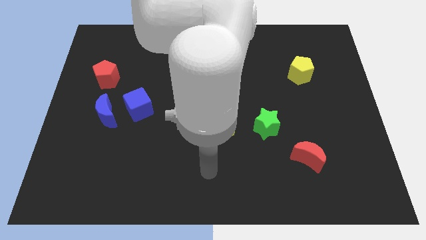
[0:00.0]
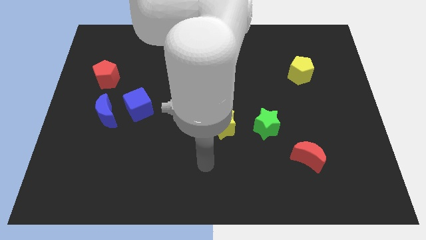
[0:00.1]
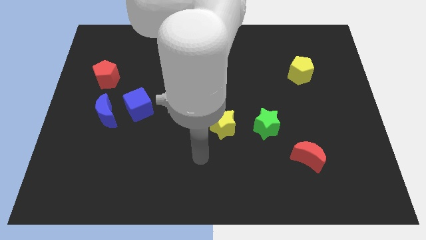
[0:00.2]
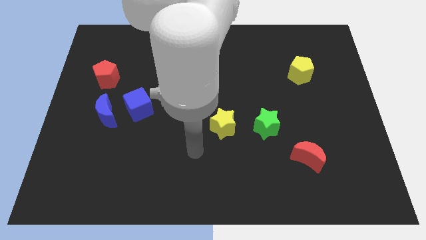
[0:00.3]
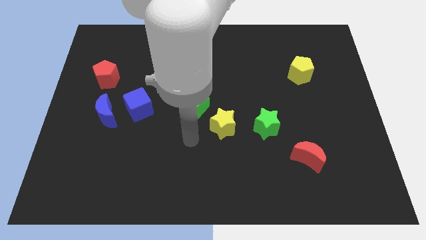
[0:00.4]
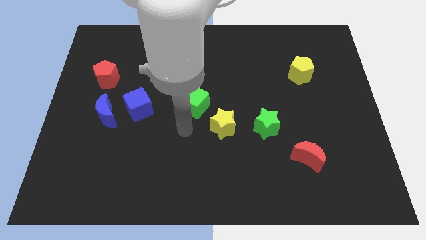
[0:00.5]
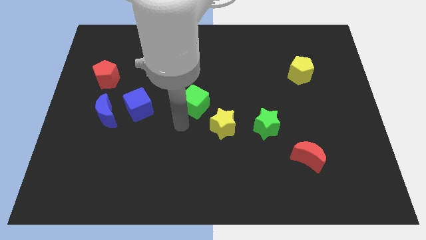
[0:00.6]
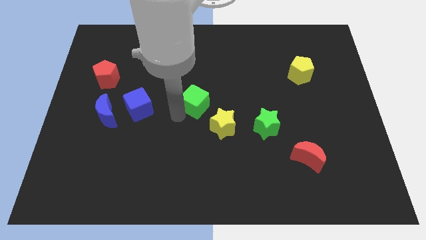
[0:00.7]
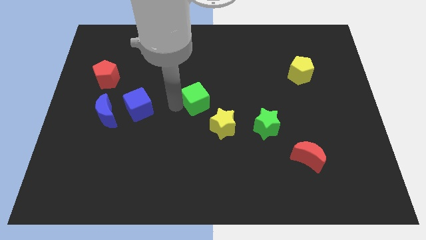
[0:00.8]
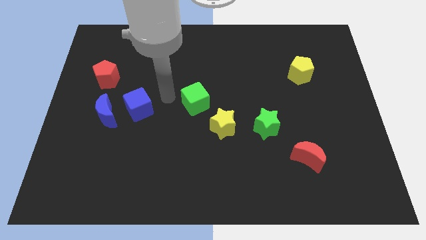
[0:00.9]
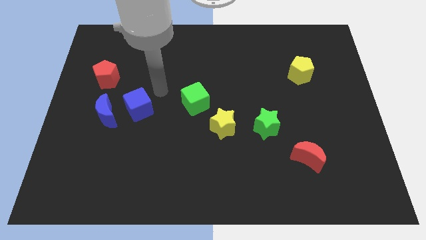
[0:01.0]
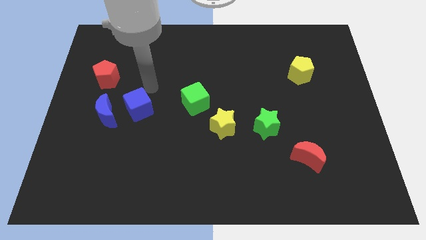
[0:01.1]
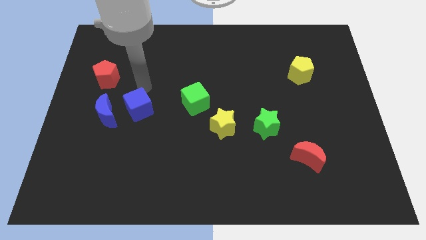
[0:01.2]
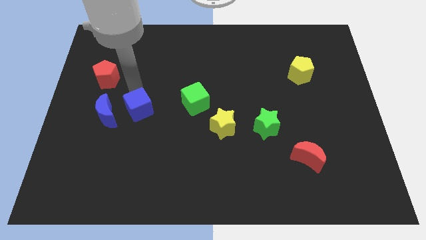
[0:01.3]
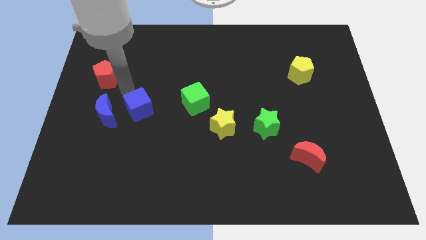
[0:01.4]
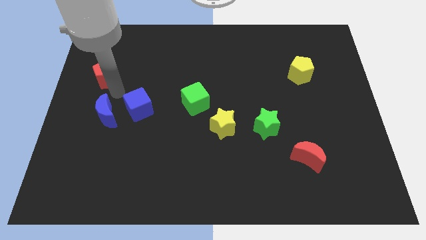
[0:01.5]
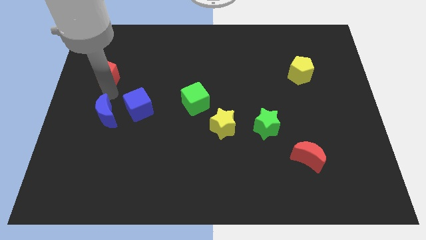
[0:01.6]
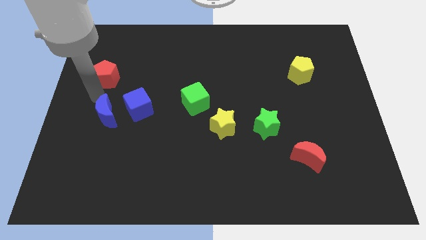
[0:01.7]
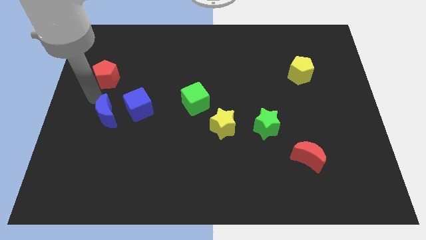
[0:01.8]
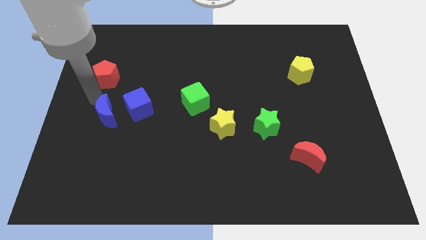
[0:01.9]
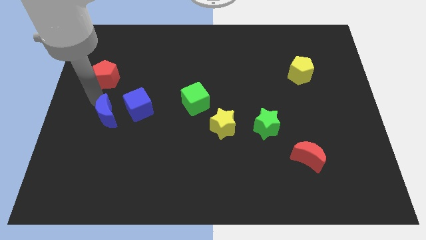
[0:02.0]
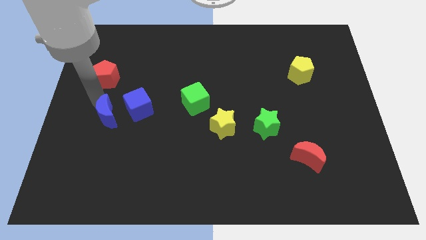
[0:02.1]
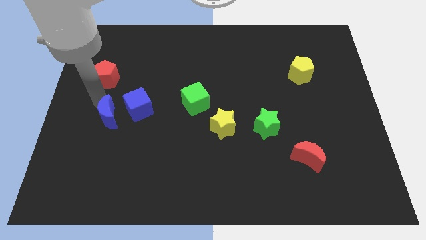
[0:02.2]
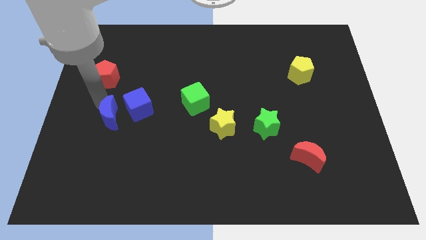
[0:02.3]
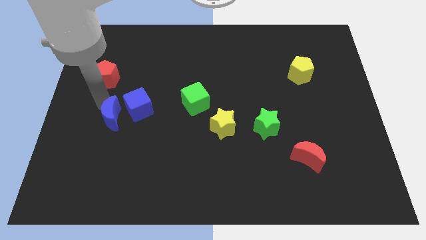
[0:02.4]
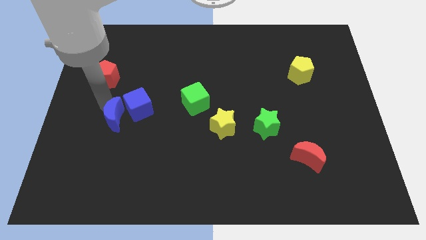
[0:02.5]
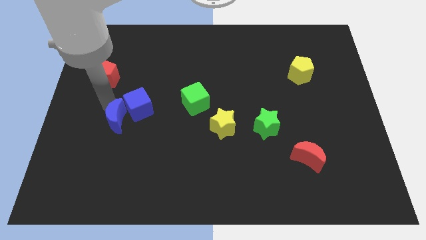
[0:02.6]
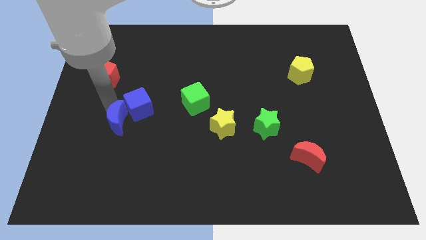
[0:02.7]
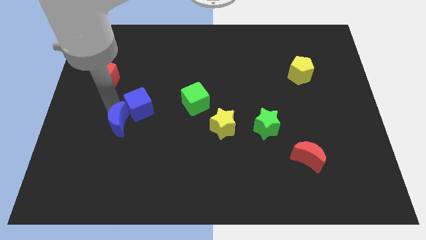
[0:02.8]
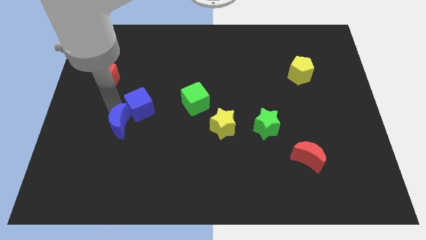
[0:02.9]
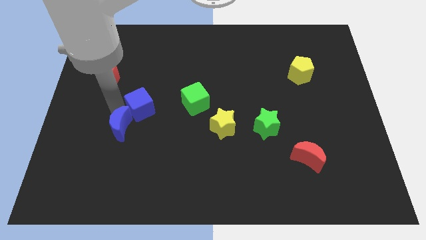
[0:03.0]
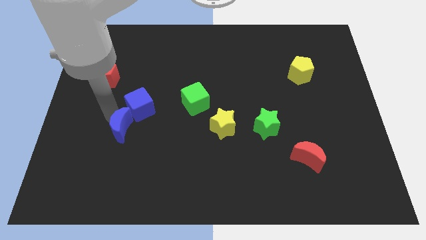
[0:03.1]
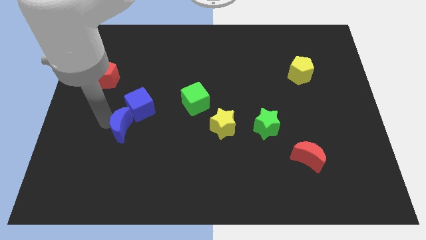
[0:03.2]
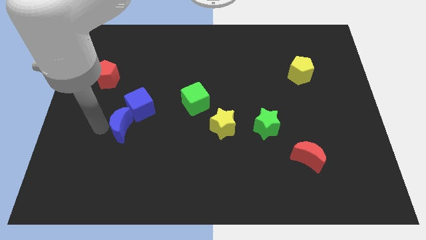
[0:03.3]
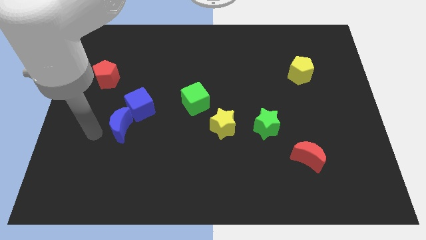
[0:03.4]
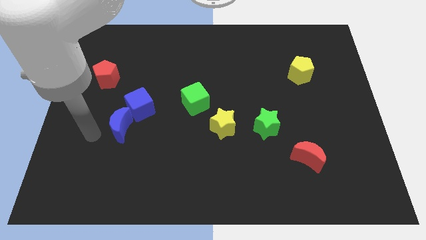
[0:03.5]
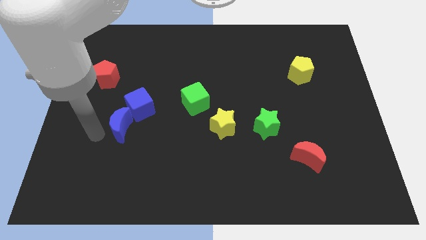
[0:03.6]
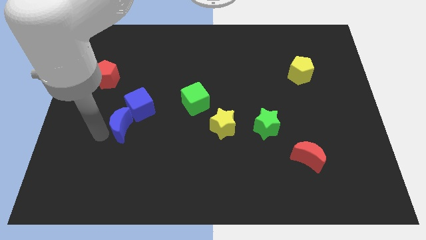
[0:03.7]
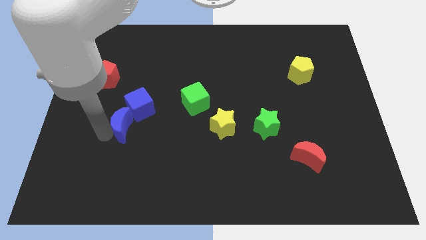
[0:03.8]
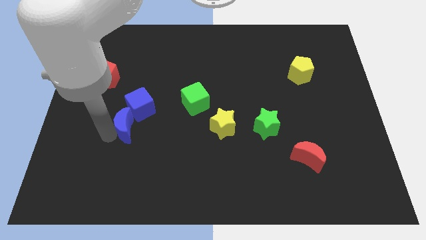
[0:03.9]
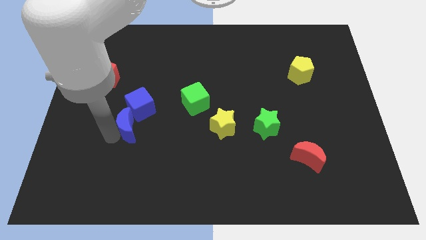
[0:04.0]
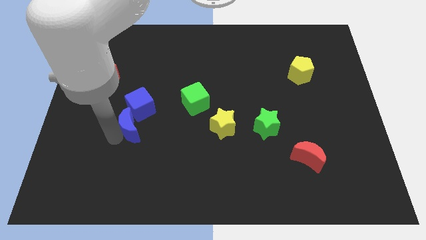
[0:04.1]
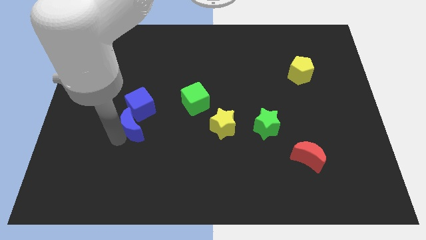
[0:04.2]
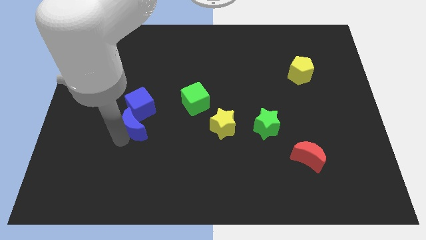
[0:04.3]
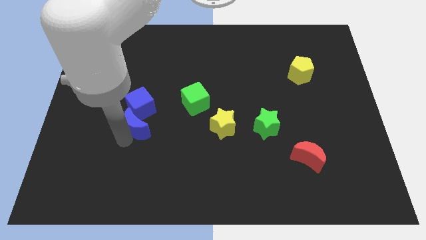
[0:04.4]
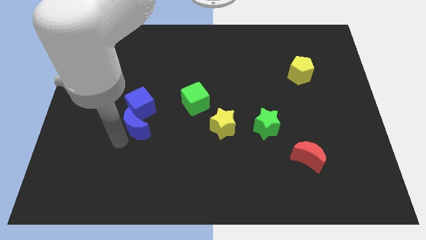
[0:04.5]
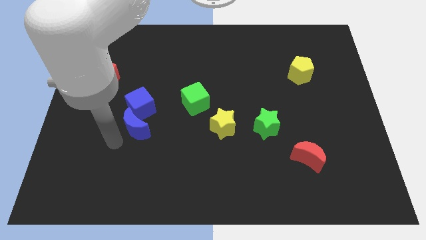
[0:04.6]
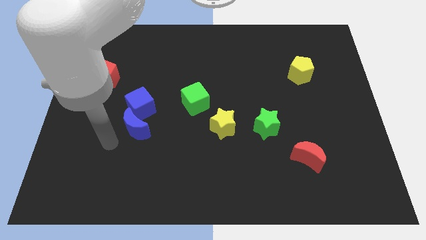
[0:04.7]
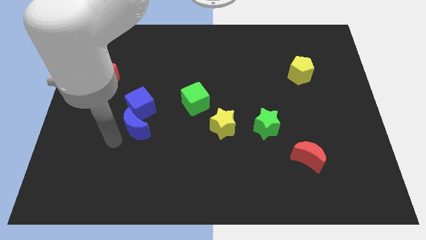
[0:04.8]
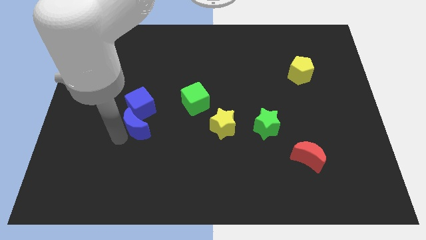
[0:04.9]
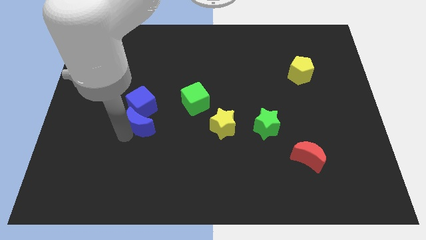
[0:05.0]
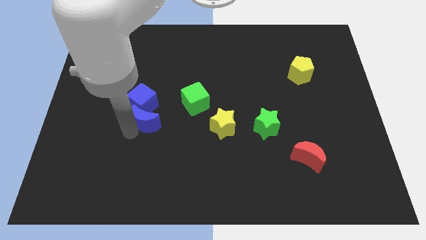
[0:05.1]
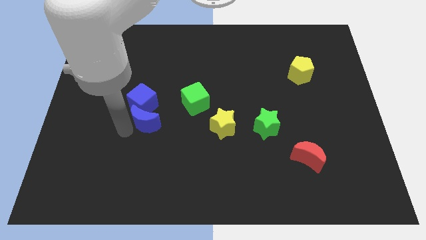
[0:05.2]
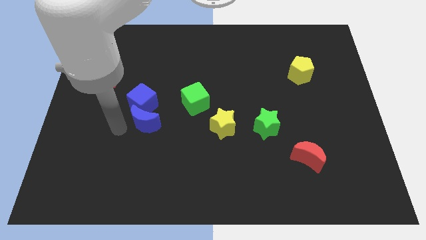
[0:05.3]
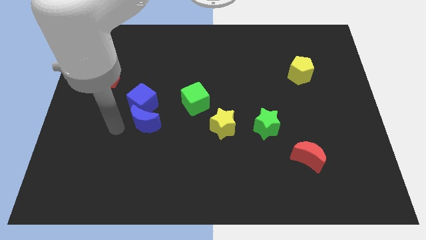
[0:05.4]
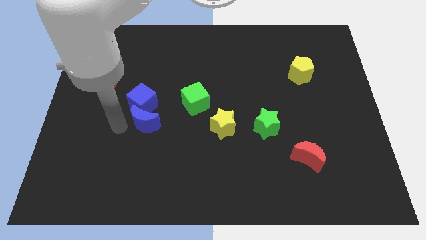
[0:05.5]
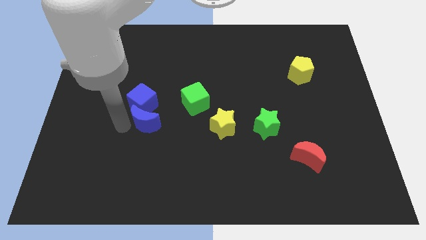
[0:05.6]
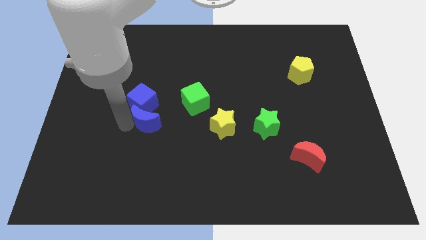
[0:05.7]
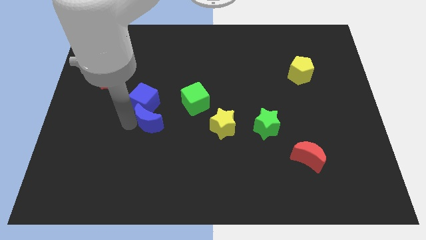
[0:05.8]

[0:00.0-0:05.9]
slide the blue moon to the bottom left side of the green cube
